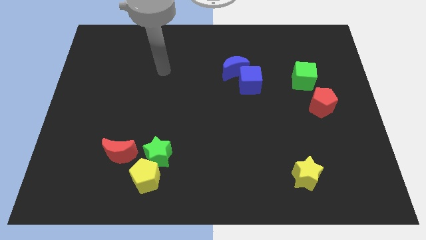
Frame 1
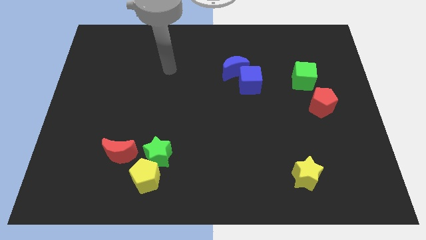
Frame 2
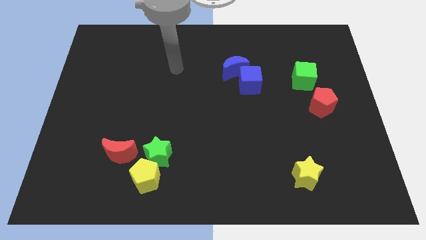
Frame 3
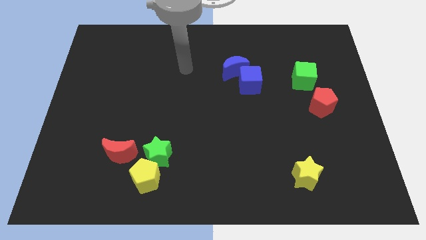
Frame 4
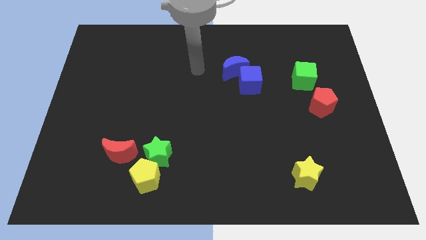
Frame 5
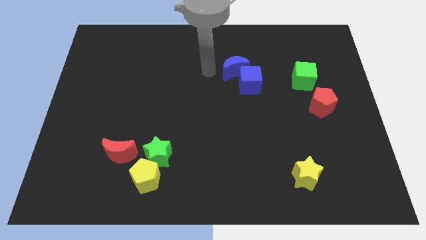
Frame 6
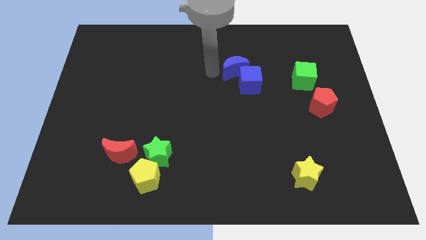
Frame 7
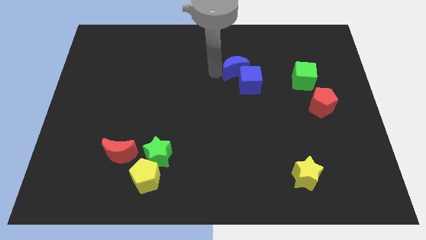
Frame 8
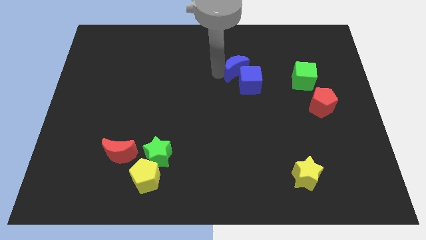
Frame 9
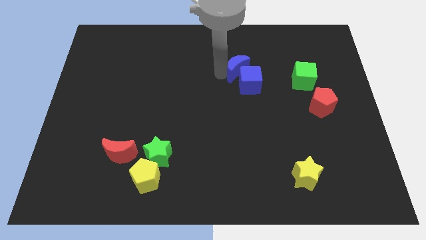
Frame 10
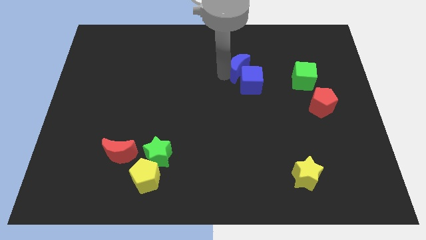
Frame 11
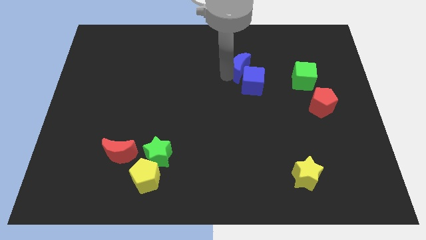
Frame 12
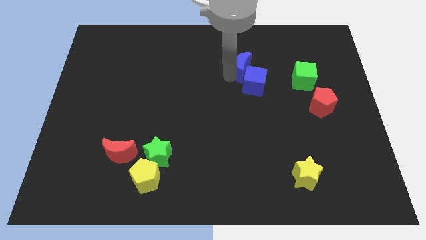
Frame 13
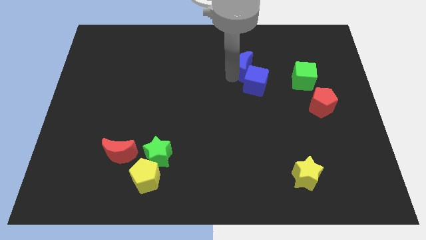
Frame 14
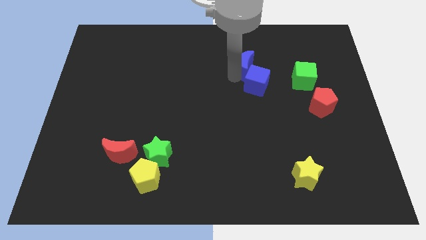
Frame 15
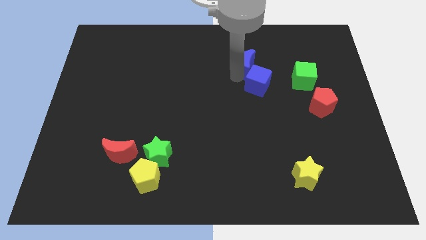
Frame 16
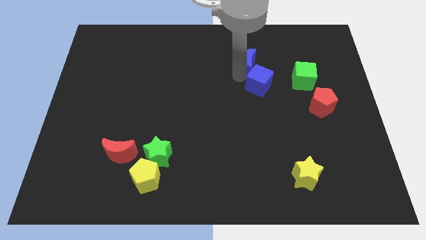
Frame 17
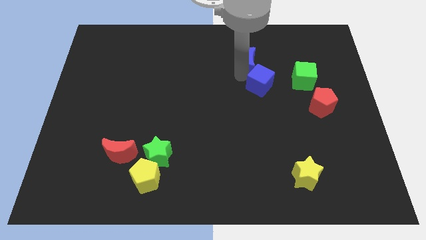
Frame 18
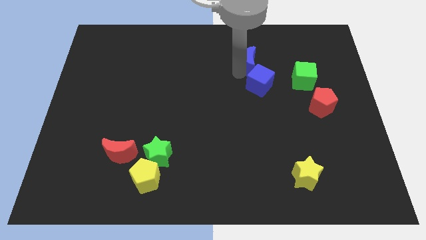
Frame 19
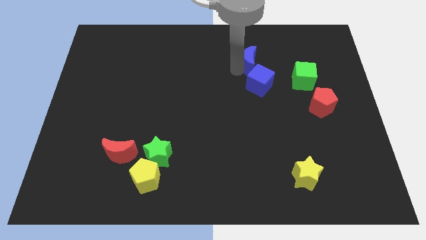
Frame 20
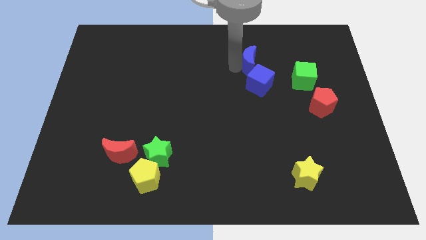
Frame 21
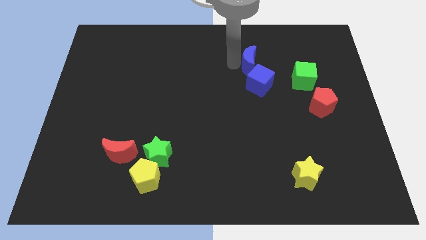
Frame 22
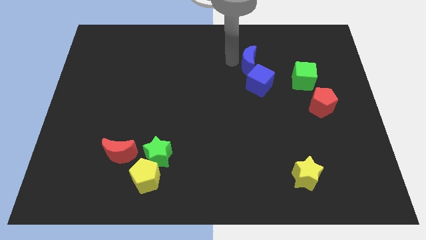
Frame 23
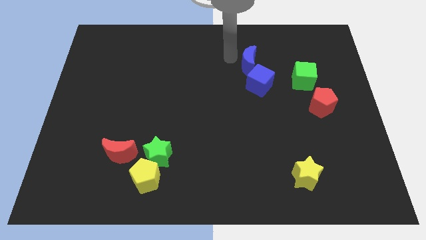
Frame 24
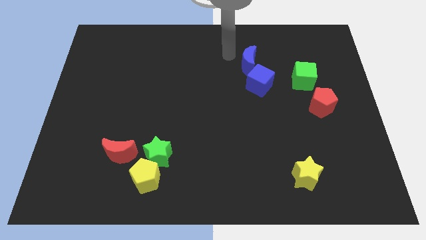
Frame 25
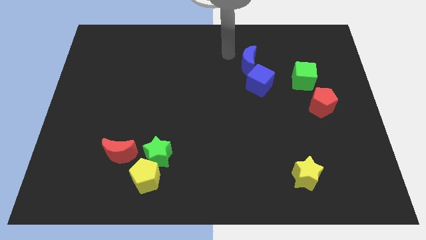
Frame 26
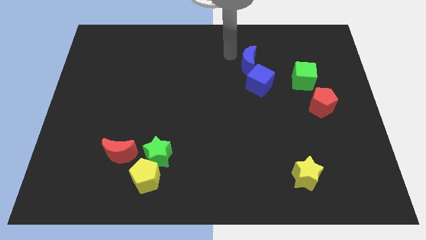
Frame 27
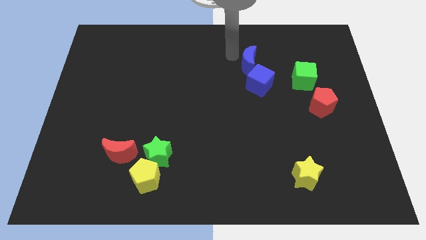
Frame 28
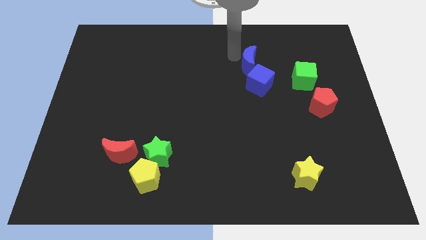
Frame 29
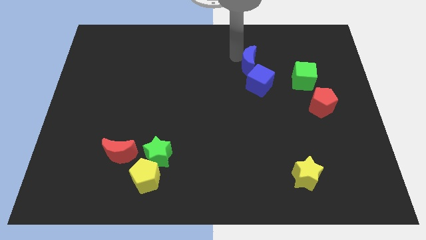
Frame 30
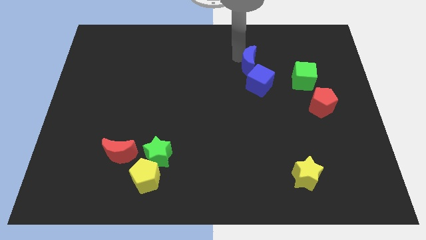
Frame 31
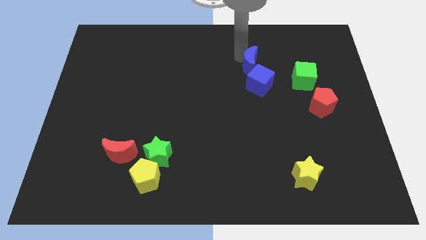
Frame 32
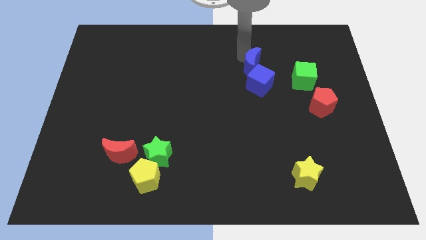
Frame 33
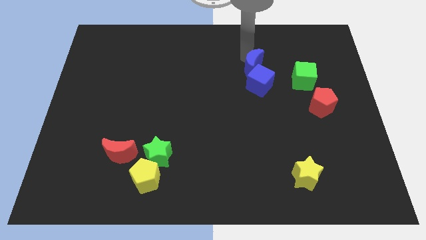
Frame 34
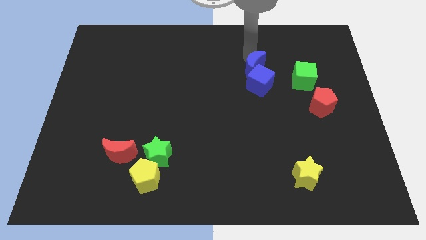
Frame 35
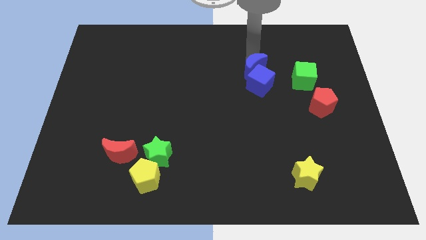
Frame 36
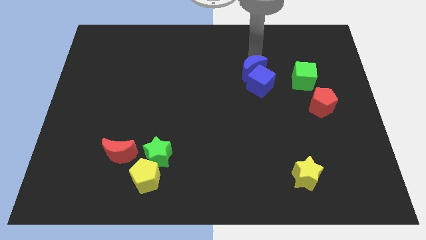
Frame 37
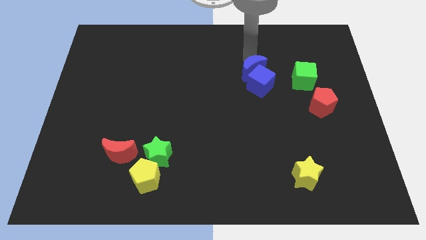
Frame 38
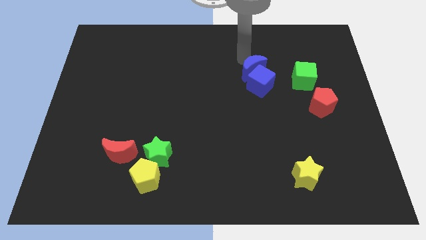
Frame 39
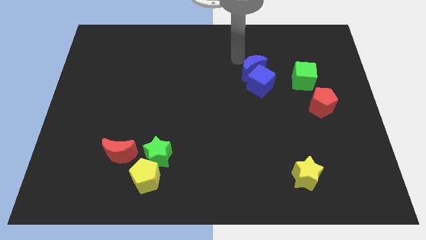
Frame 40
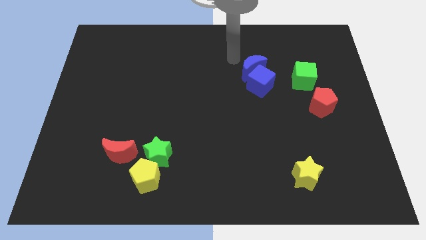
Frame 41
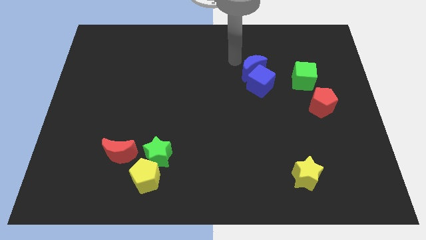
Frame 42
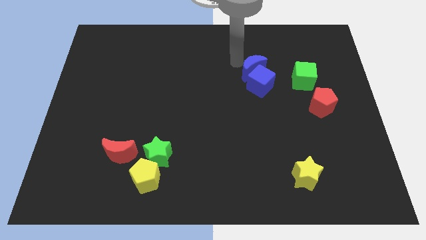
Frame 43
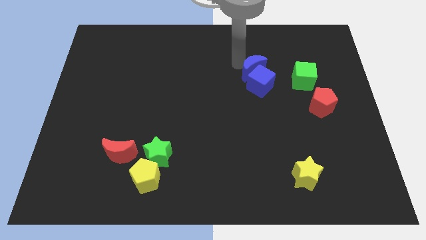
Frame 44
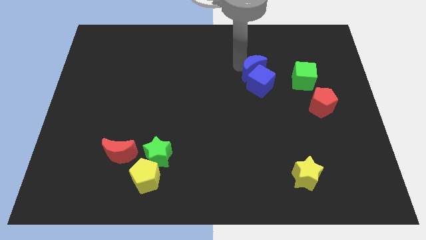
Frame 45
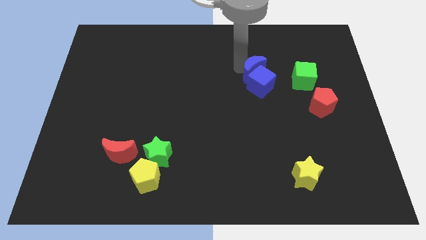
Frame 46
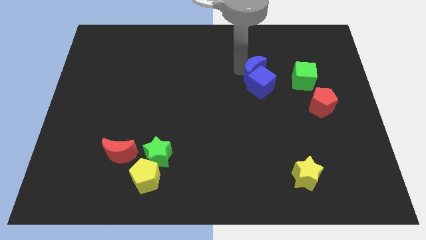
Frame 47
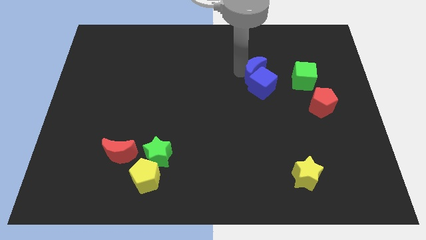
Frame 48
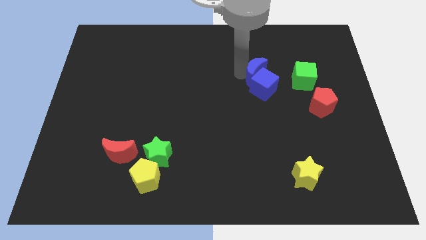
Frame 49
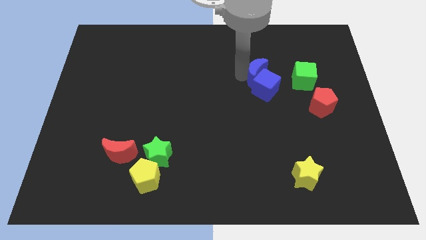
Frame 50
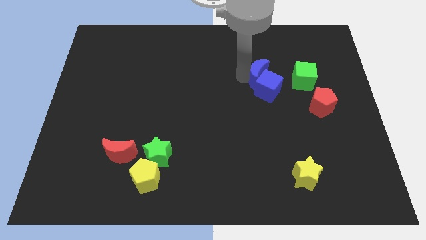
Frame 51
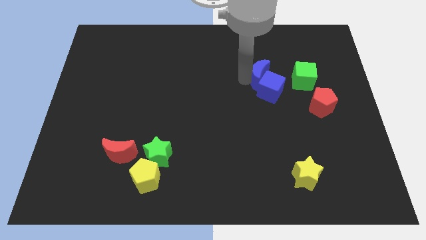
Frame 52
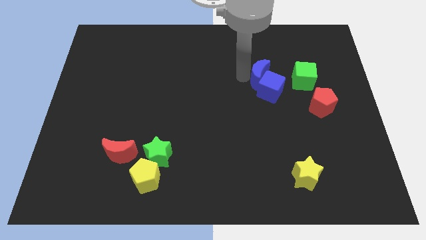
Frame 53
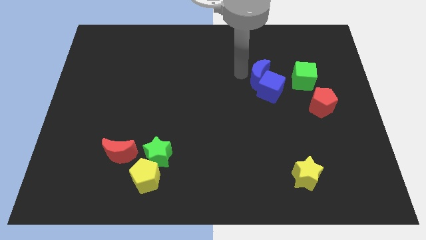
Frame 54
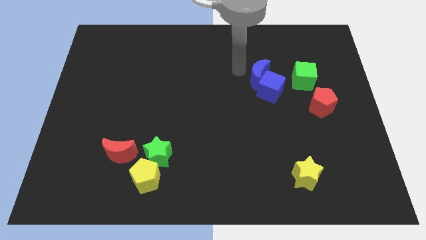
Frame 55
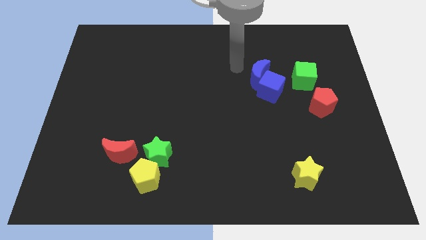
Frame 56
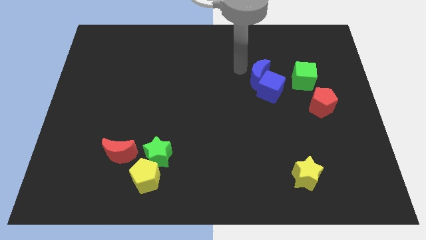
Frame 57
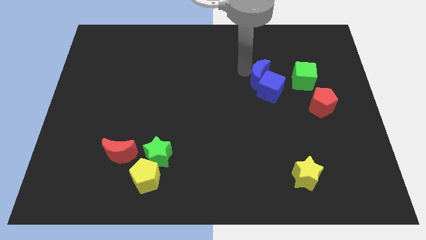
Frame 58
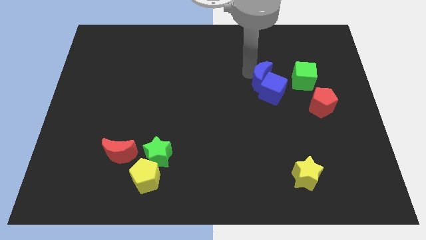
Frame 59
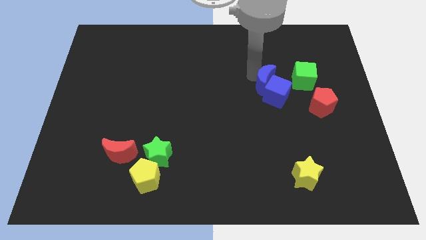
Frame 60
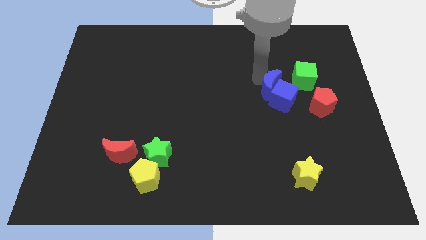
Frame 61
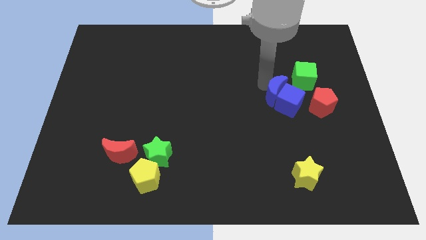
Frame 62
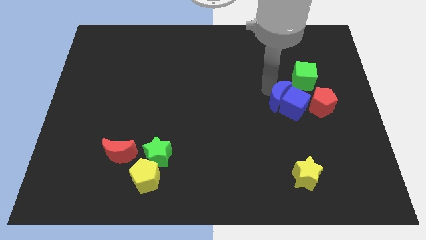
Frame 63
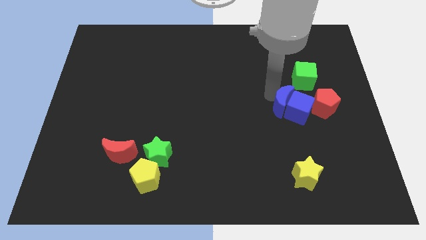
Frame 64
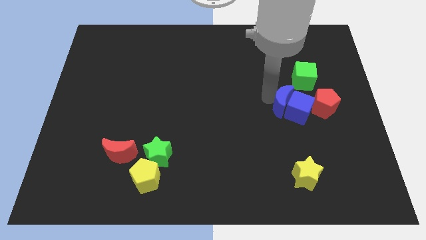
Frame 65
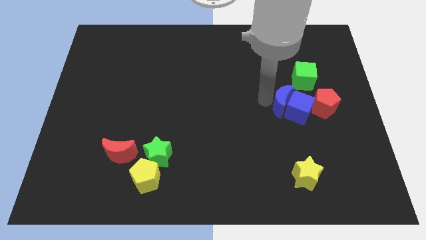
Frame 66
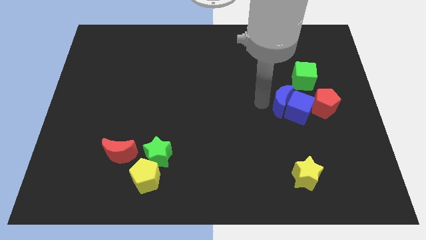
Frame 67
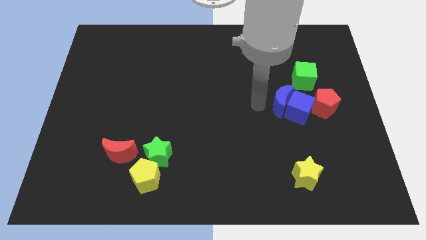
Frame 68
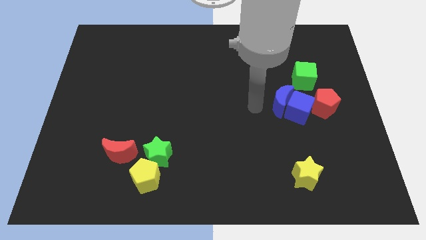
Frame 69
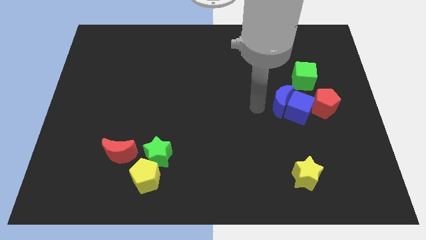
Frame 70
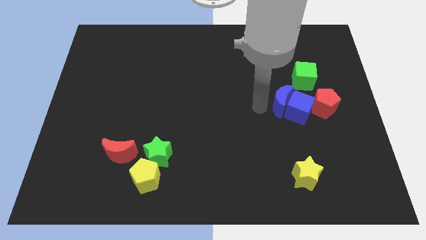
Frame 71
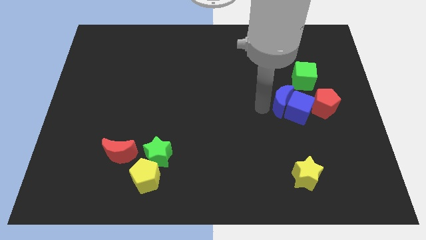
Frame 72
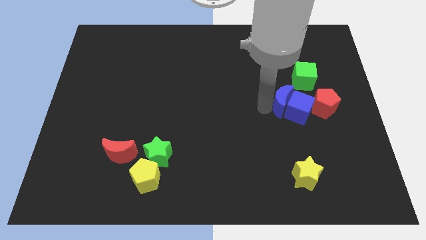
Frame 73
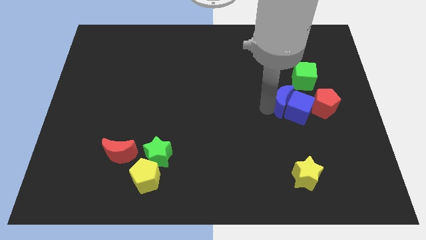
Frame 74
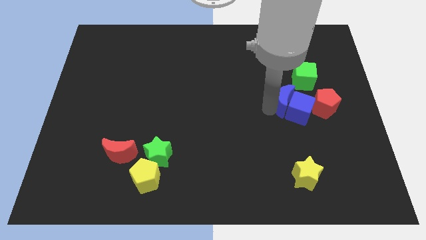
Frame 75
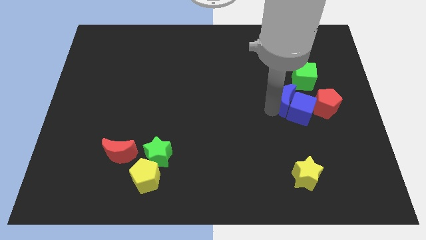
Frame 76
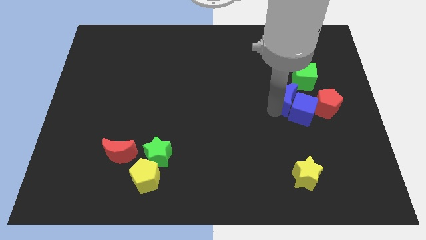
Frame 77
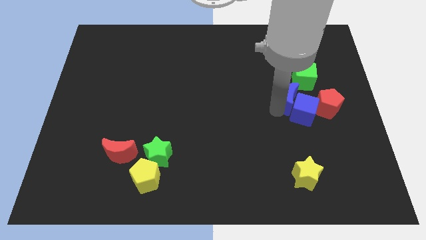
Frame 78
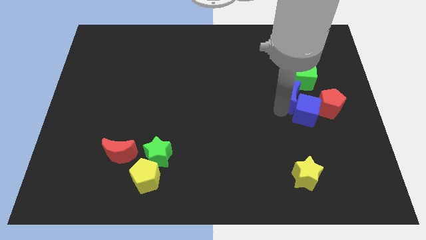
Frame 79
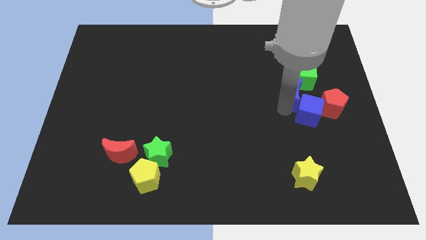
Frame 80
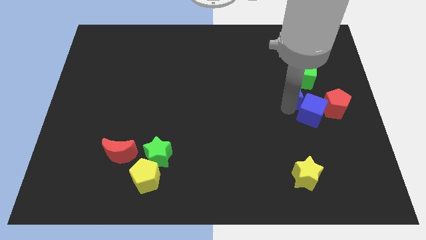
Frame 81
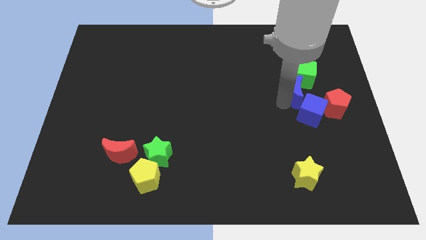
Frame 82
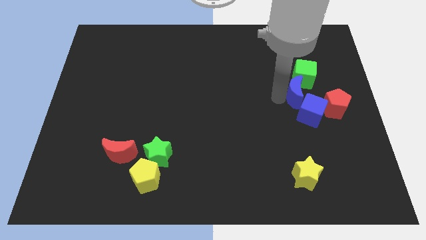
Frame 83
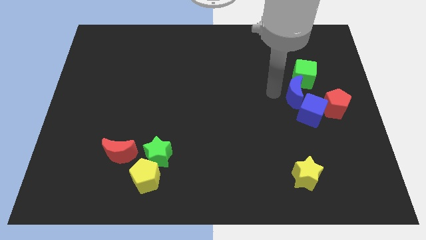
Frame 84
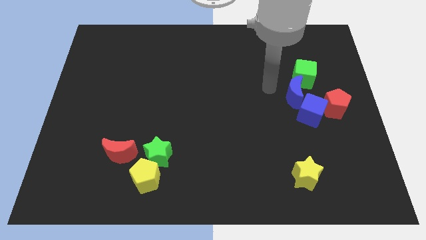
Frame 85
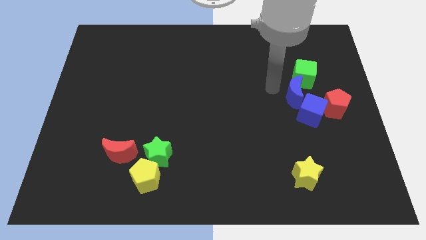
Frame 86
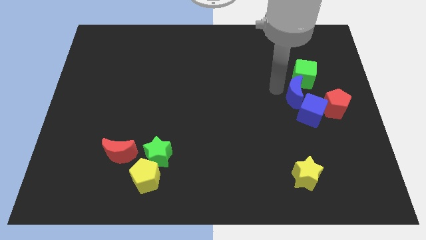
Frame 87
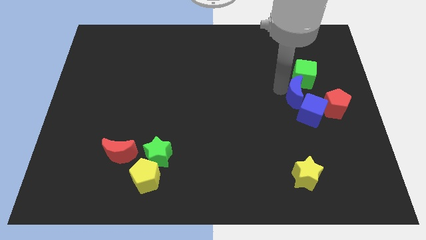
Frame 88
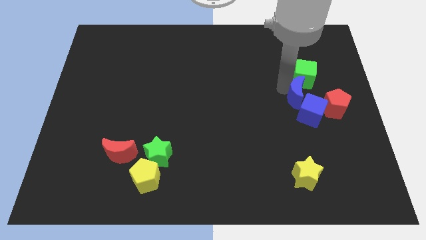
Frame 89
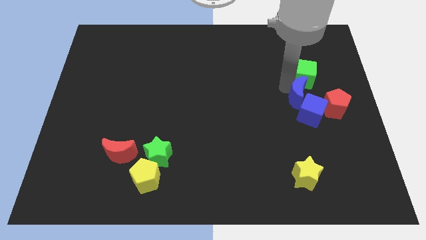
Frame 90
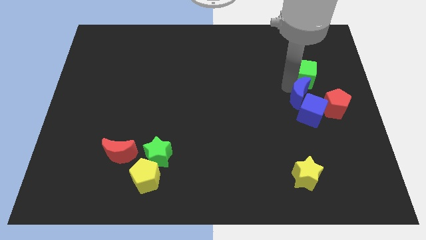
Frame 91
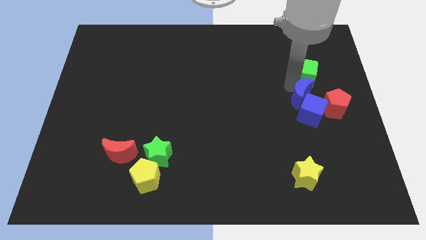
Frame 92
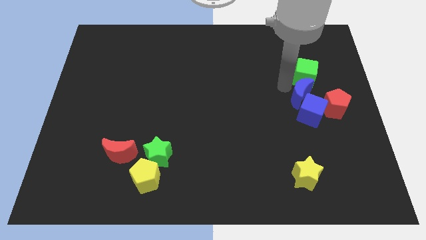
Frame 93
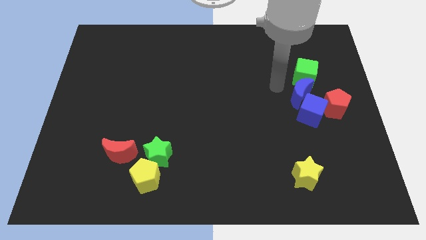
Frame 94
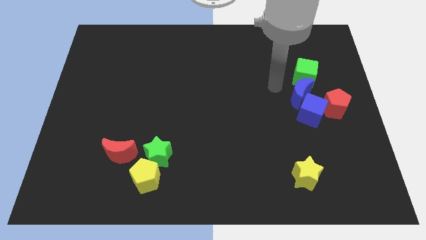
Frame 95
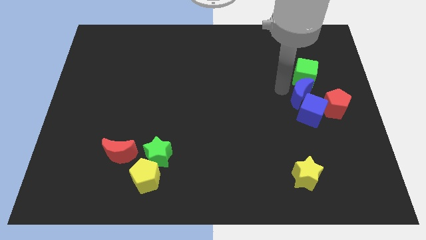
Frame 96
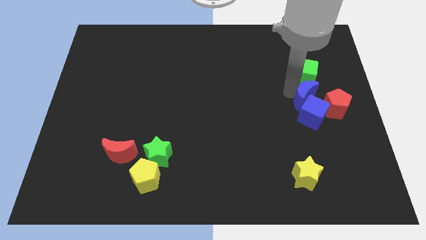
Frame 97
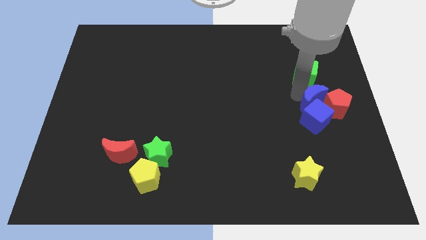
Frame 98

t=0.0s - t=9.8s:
slide the blue moon close to the red pentagon
